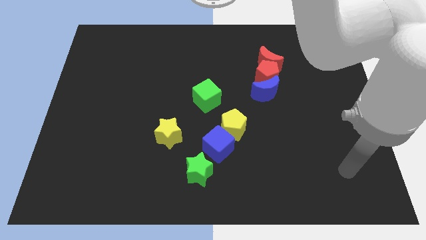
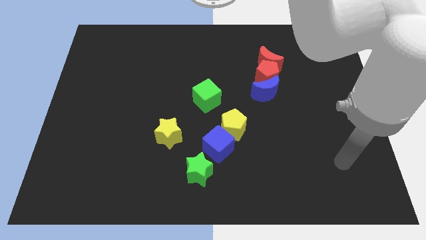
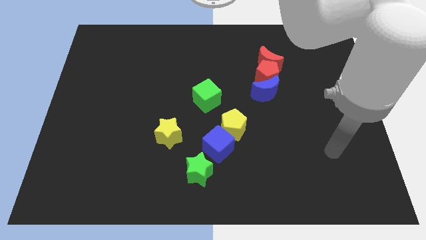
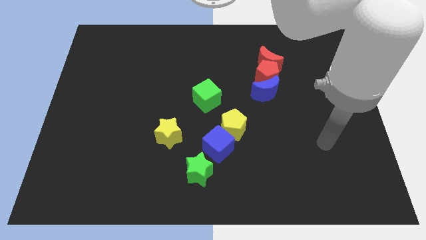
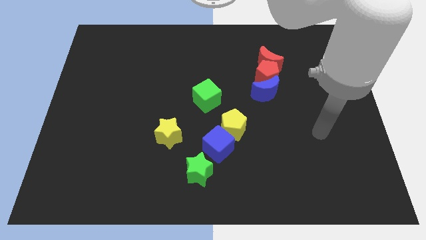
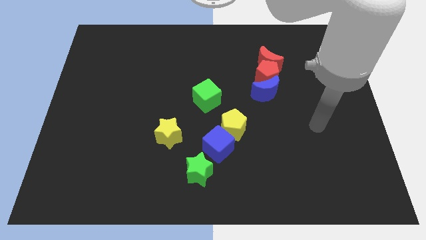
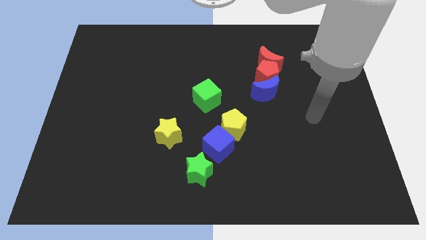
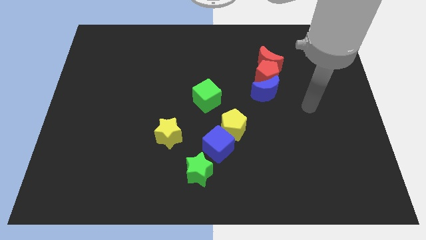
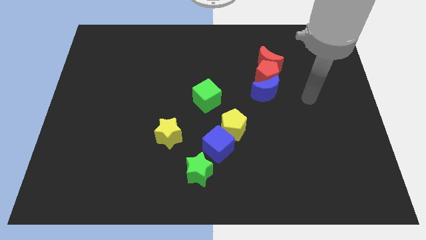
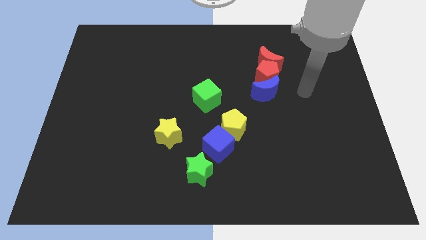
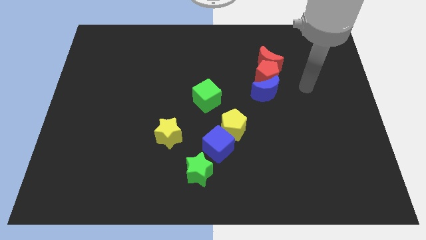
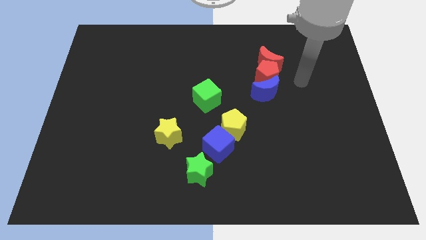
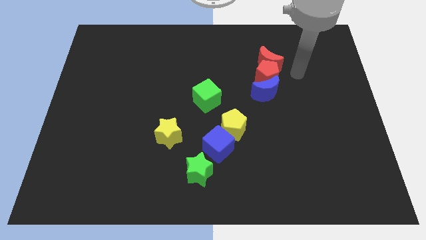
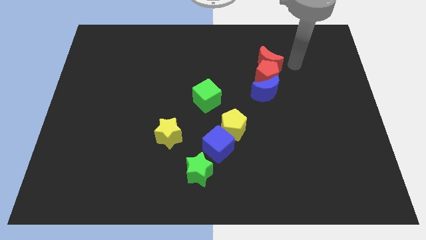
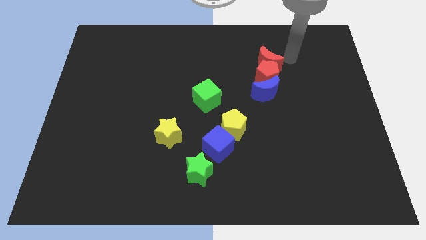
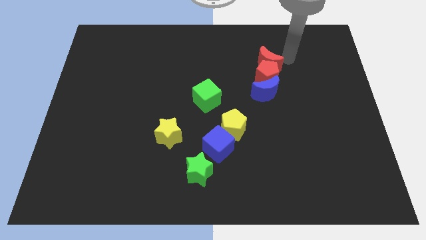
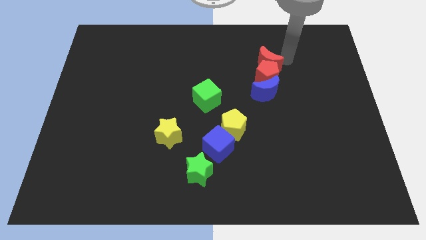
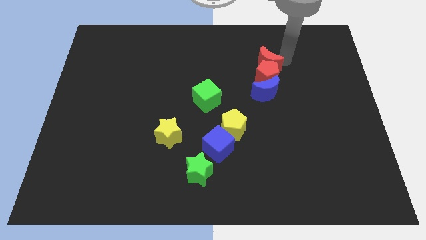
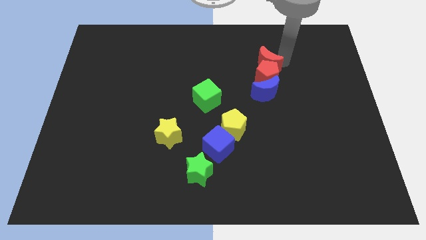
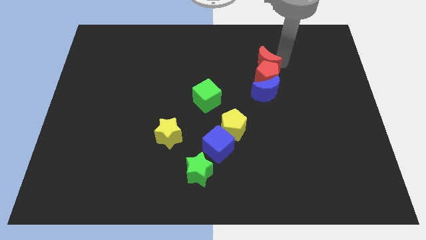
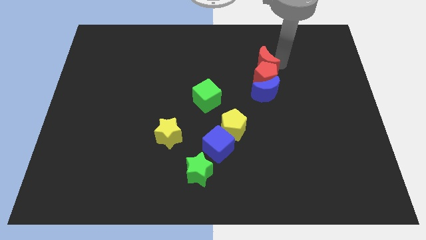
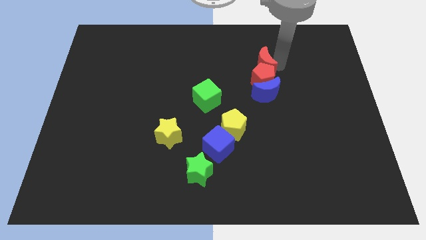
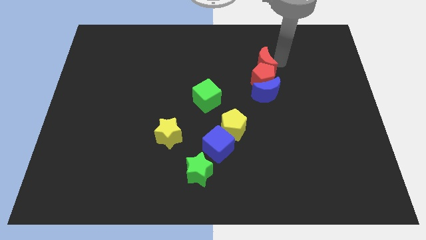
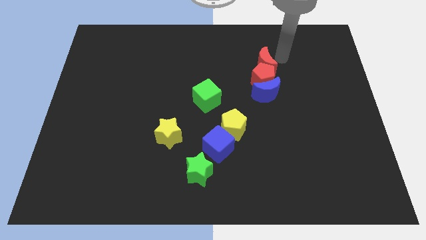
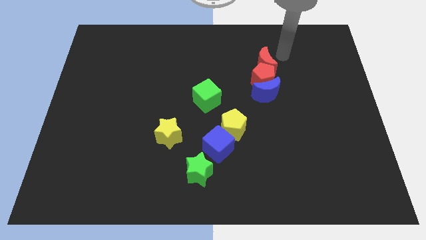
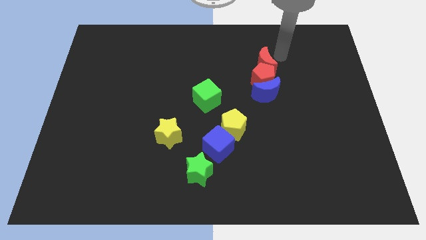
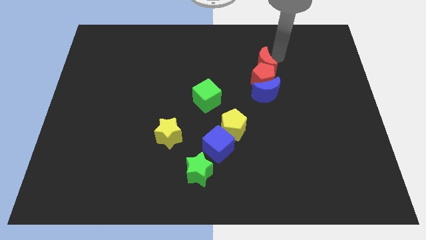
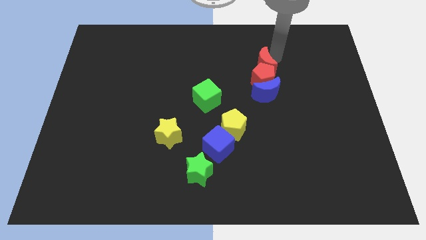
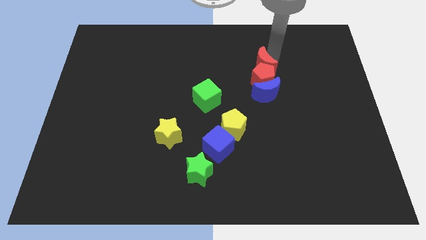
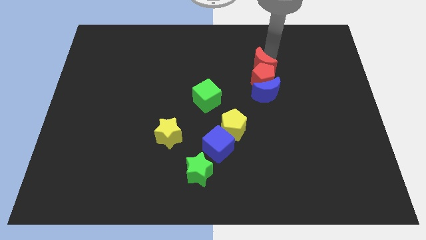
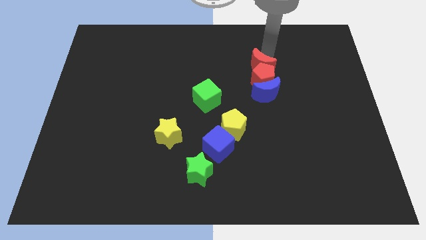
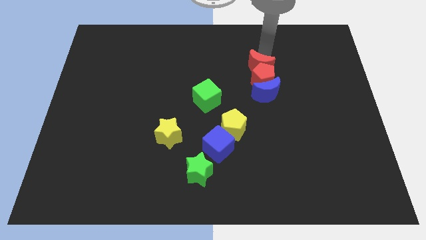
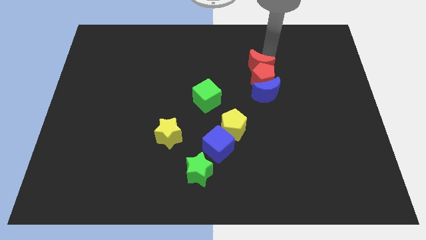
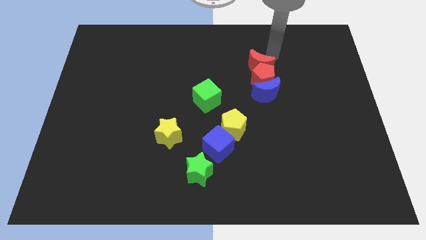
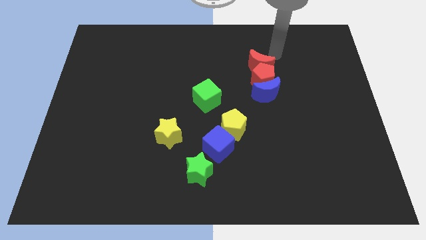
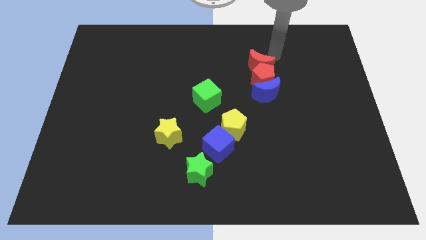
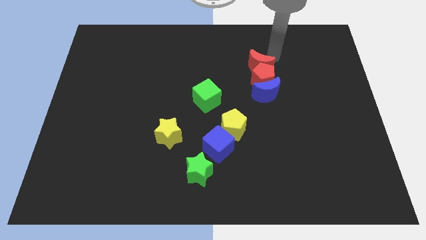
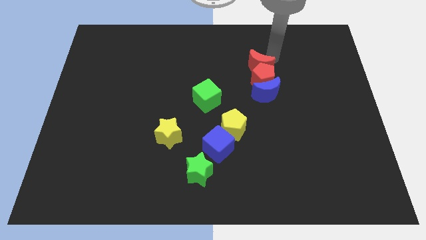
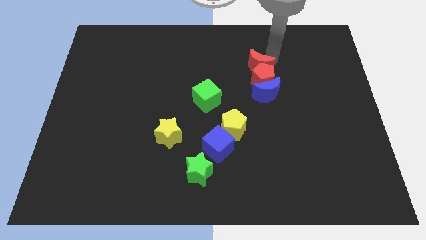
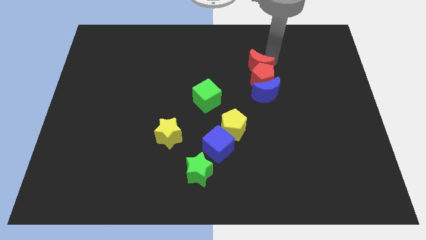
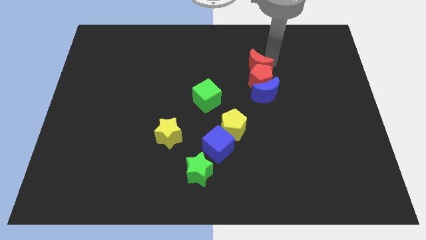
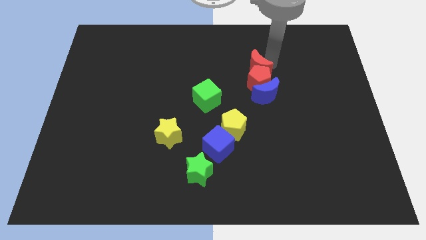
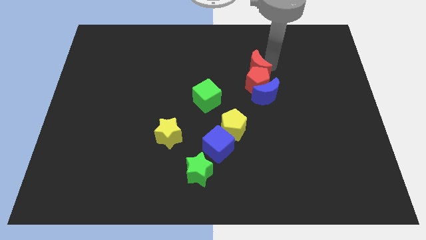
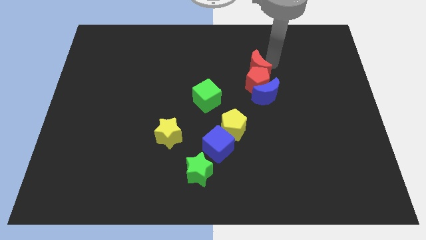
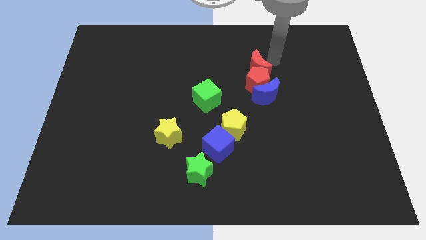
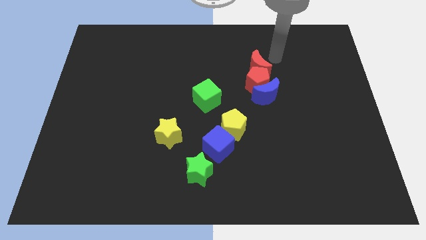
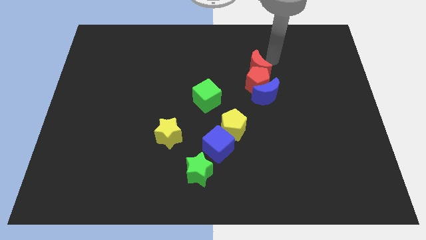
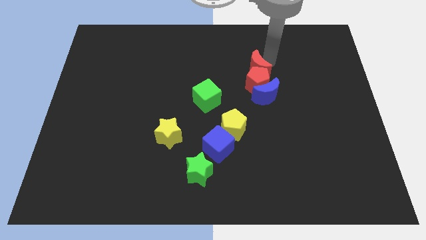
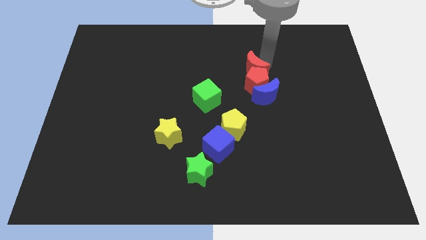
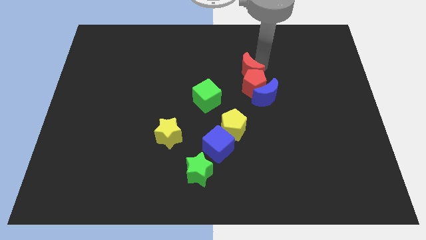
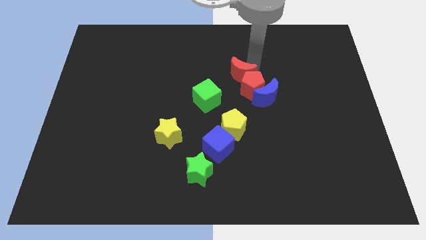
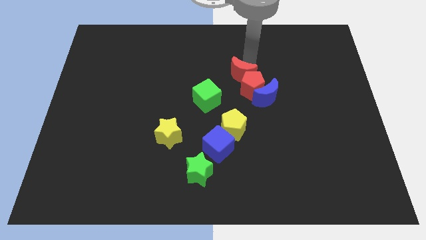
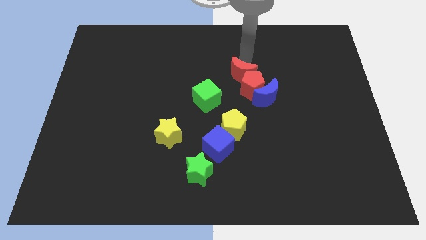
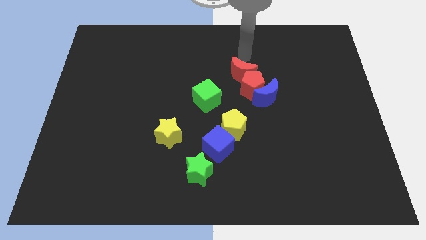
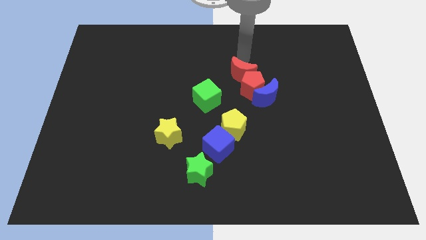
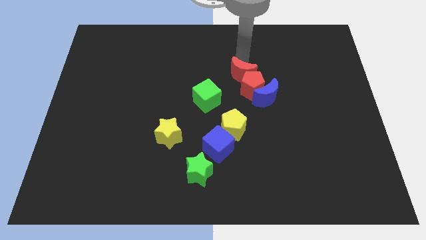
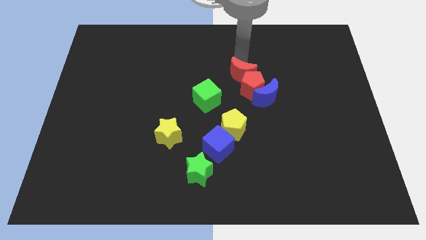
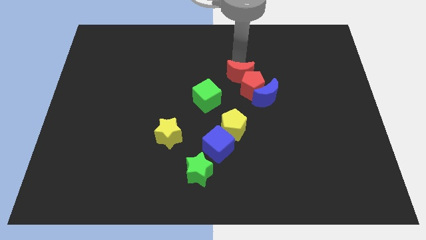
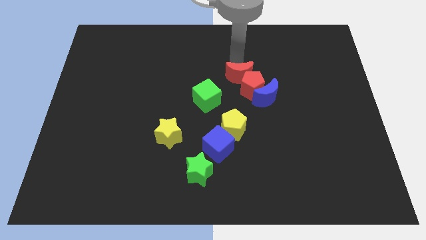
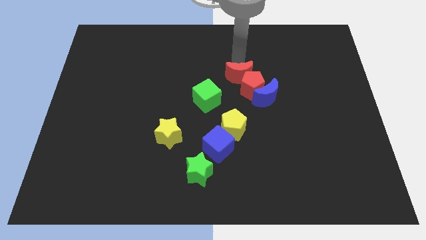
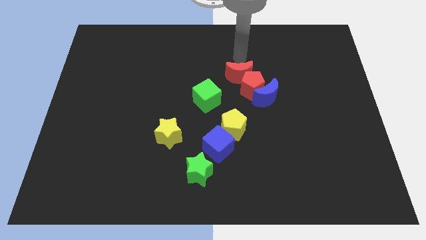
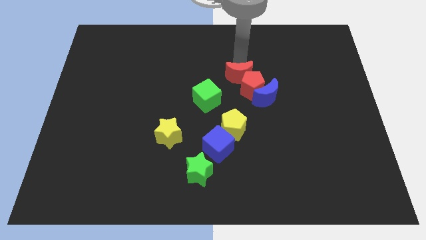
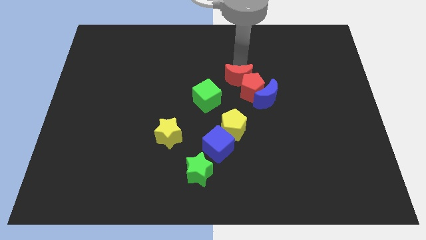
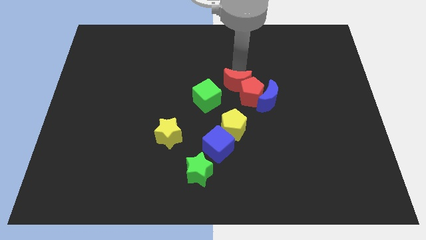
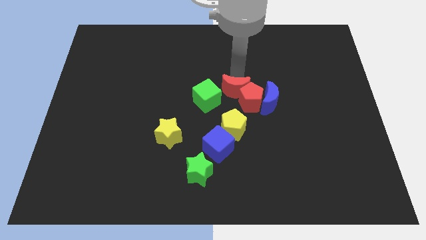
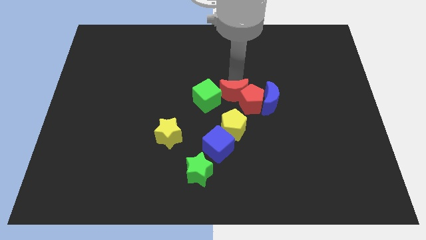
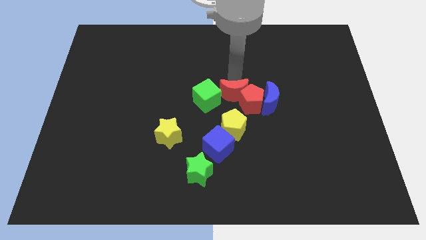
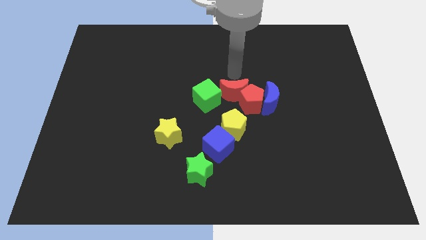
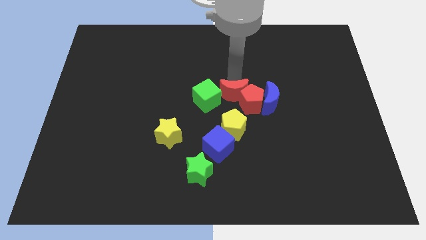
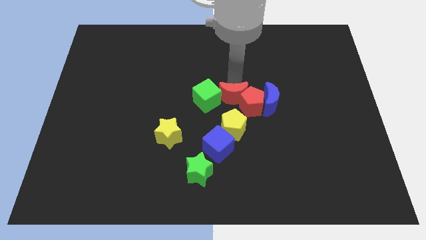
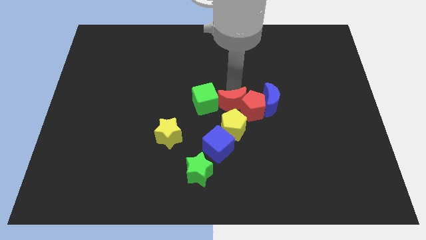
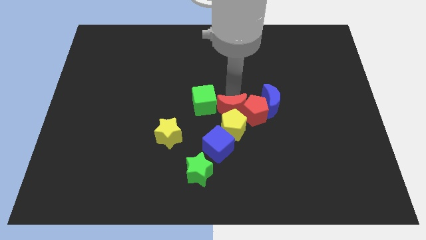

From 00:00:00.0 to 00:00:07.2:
put the red moon towards the yellow pentagon
